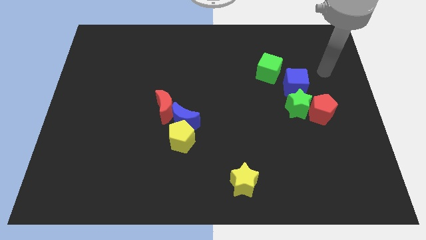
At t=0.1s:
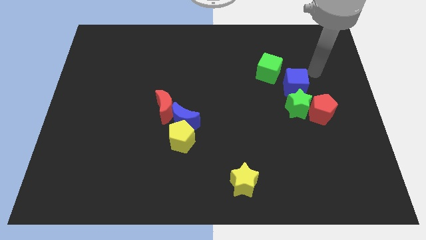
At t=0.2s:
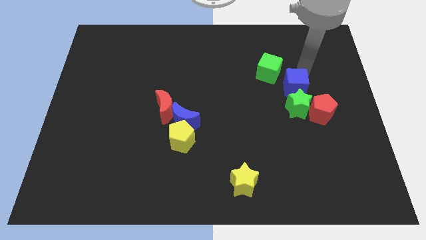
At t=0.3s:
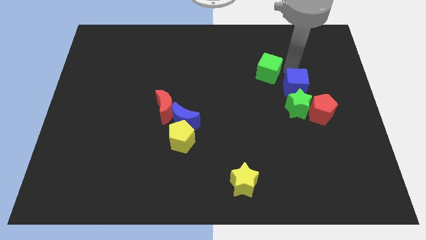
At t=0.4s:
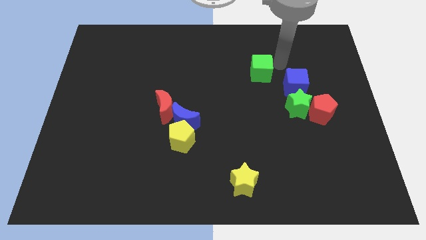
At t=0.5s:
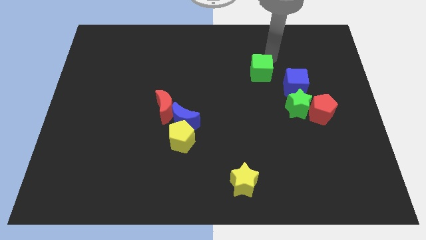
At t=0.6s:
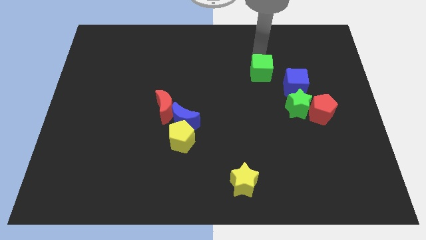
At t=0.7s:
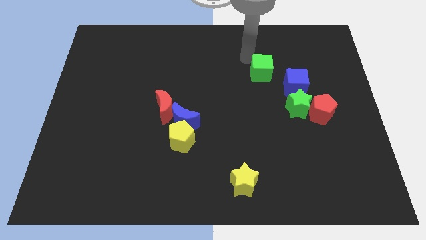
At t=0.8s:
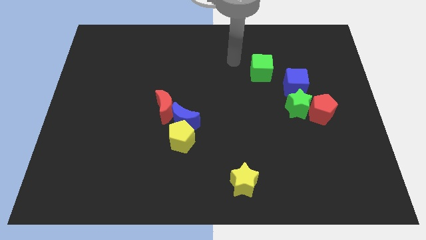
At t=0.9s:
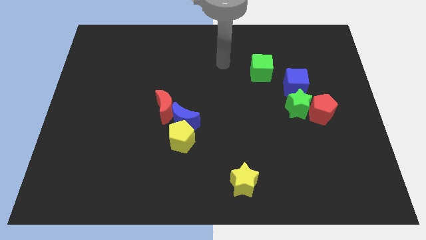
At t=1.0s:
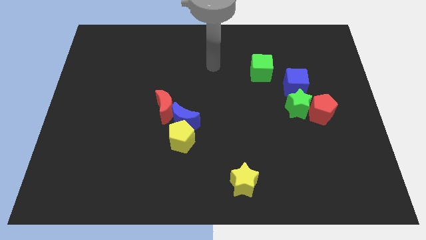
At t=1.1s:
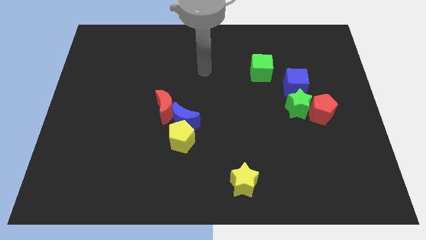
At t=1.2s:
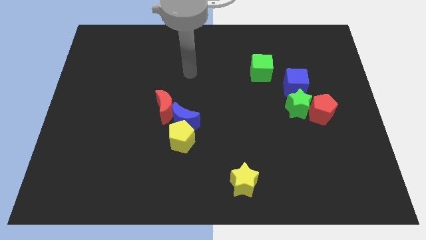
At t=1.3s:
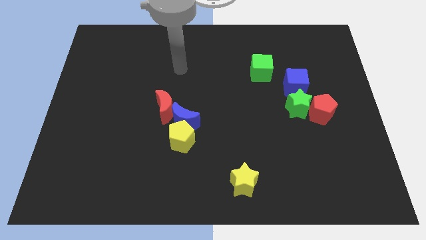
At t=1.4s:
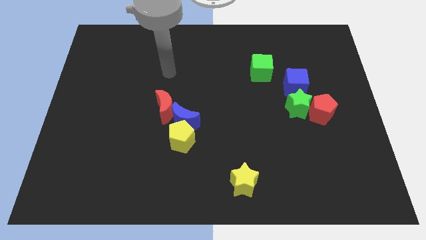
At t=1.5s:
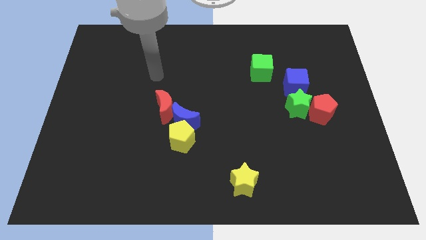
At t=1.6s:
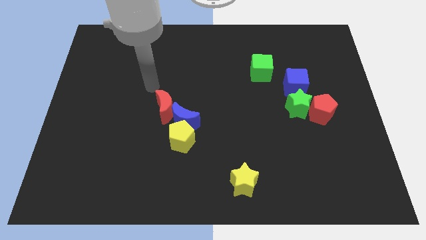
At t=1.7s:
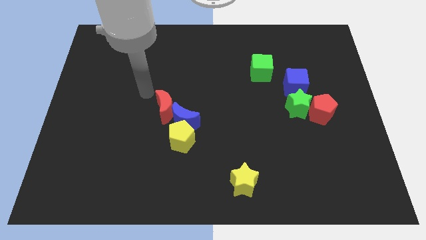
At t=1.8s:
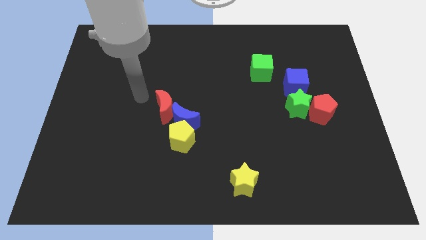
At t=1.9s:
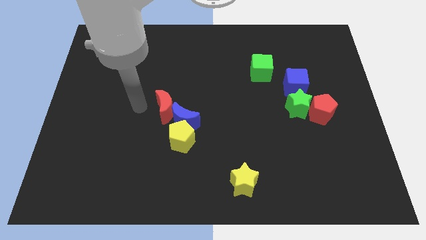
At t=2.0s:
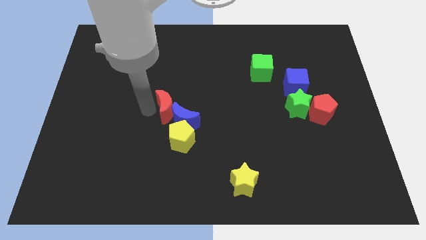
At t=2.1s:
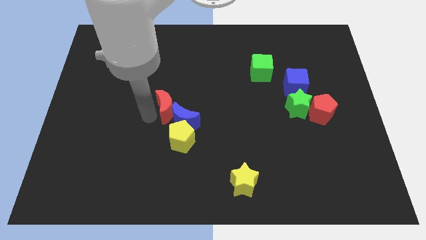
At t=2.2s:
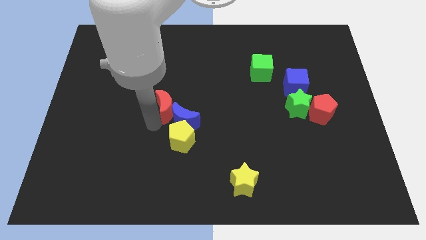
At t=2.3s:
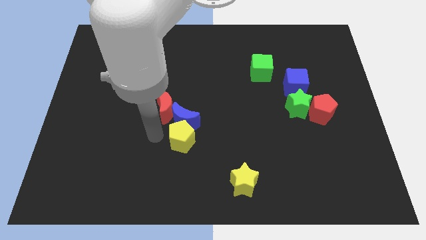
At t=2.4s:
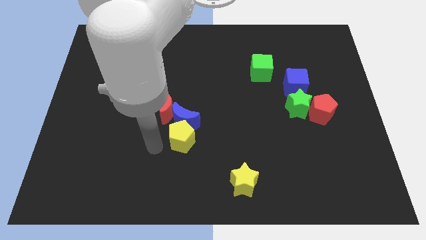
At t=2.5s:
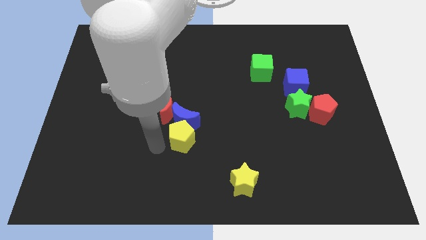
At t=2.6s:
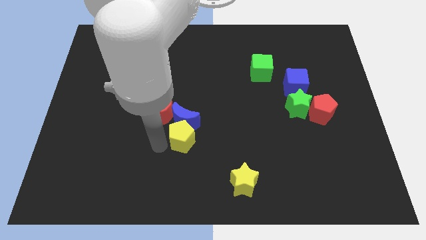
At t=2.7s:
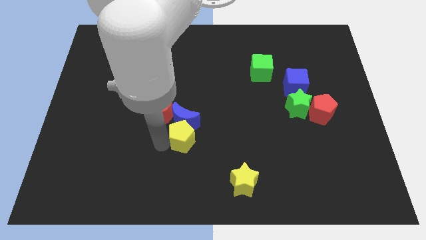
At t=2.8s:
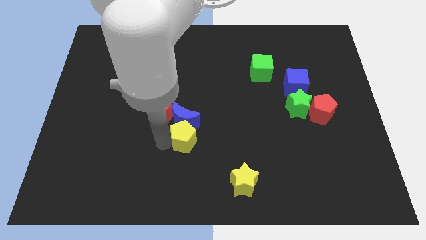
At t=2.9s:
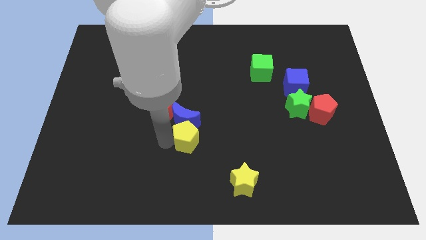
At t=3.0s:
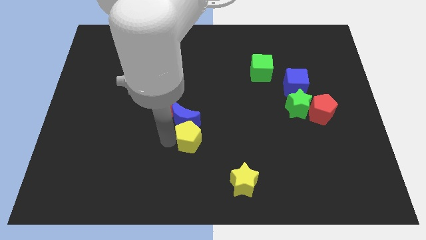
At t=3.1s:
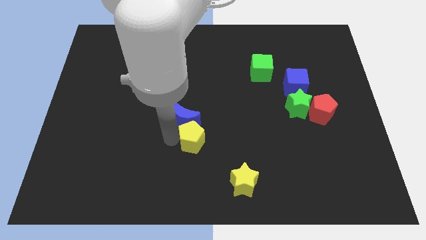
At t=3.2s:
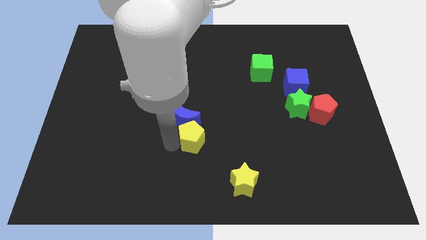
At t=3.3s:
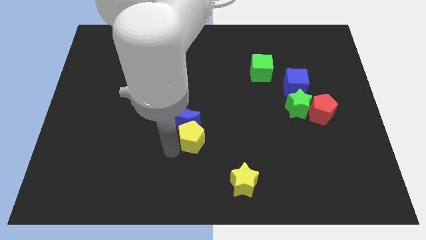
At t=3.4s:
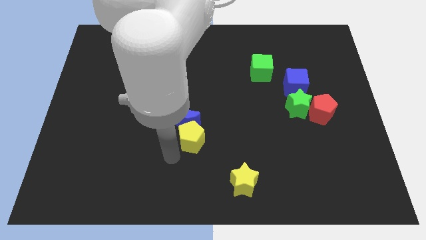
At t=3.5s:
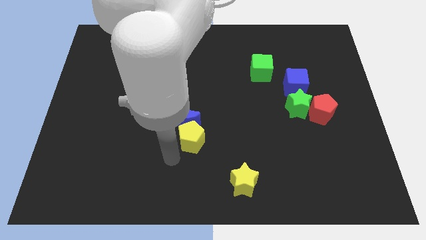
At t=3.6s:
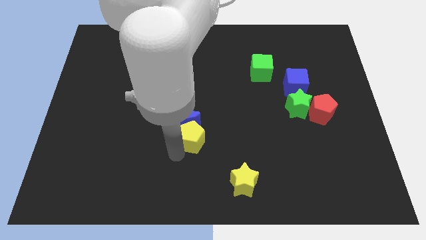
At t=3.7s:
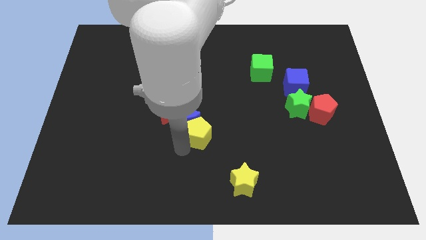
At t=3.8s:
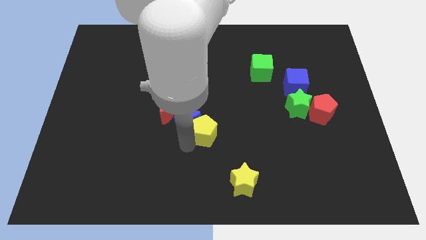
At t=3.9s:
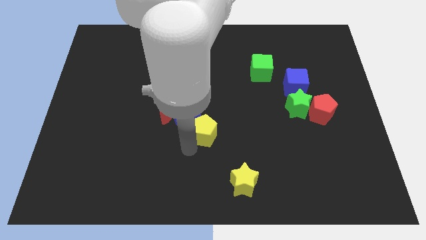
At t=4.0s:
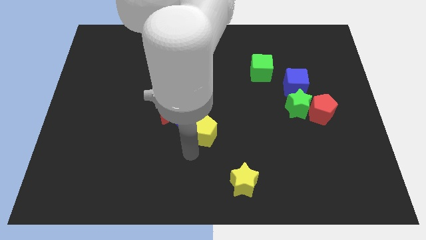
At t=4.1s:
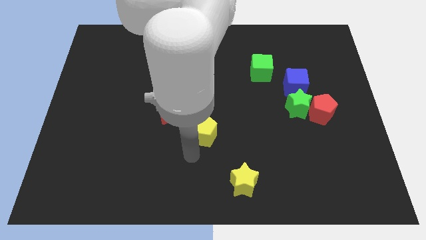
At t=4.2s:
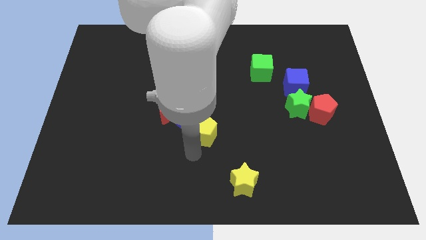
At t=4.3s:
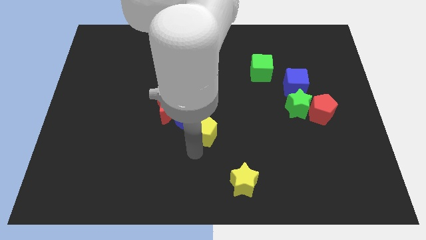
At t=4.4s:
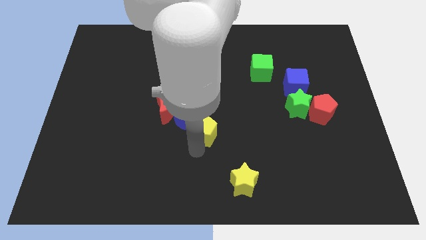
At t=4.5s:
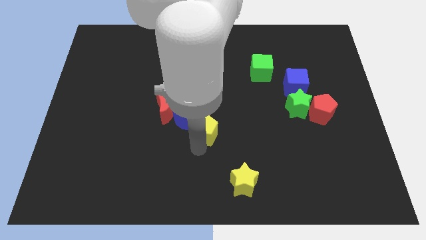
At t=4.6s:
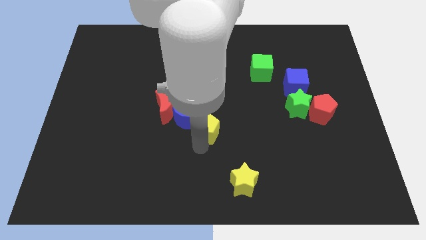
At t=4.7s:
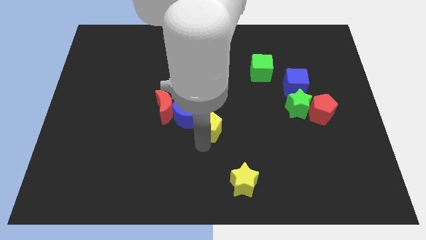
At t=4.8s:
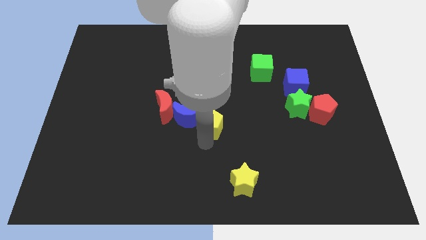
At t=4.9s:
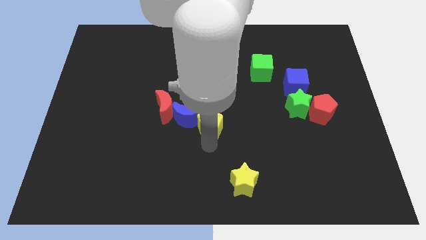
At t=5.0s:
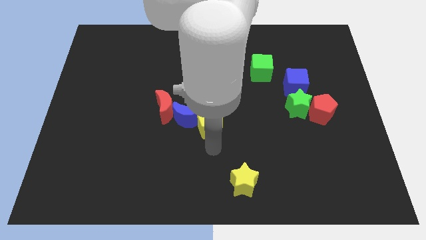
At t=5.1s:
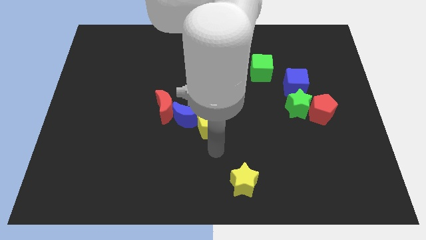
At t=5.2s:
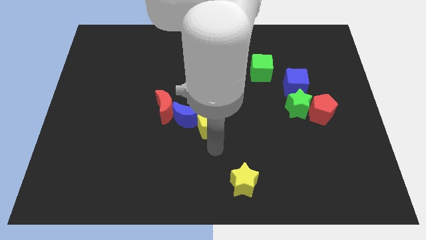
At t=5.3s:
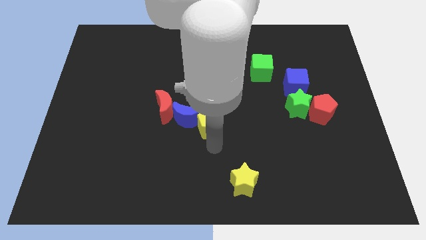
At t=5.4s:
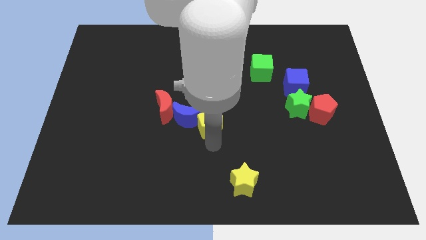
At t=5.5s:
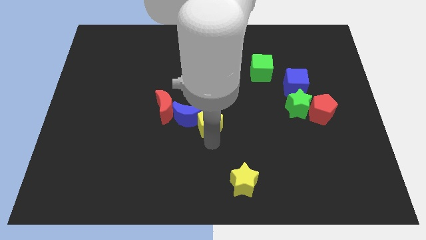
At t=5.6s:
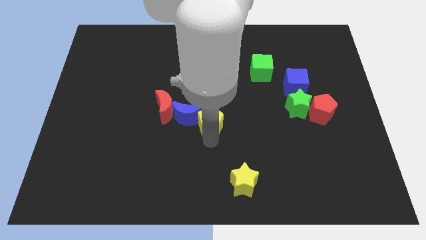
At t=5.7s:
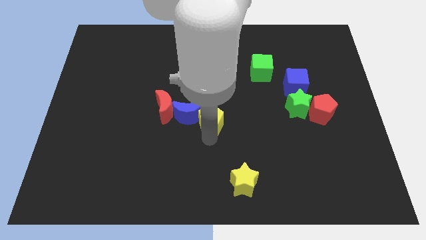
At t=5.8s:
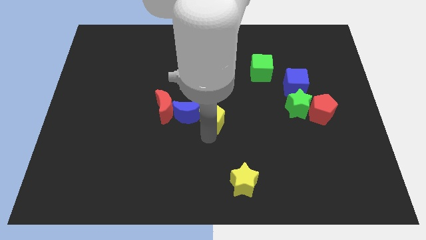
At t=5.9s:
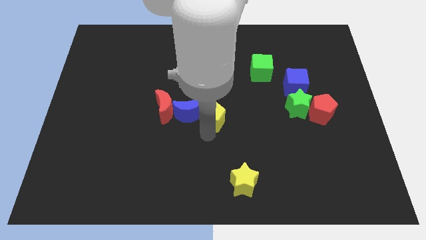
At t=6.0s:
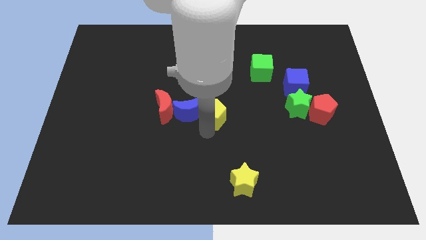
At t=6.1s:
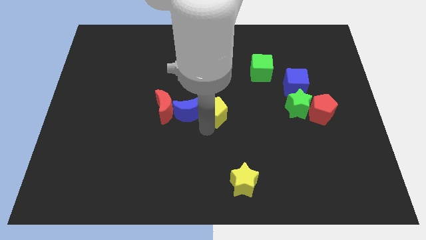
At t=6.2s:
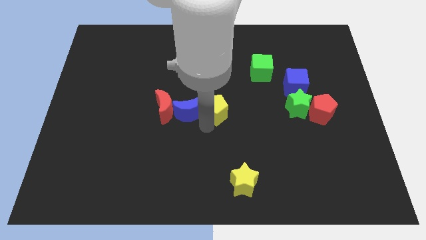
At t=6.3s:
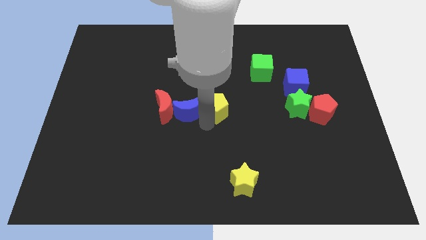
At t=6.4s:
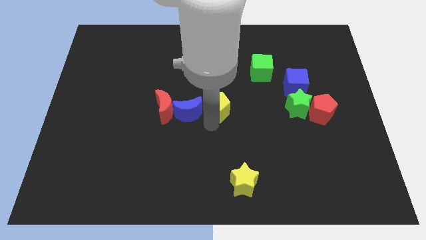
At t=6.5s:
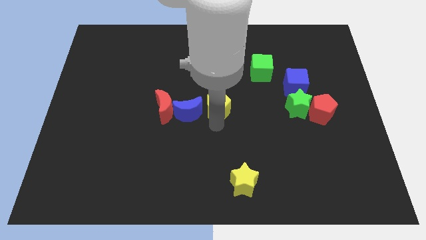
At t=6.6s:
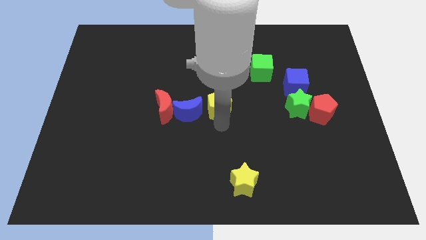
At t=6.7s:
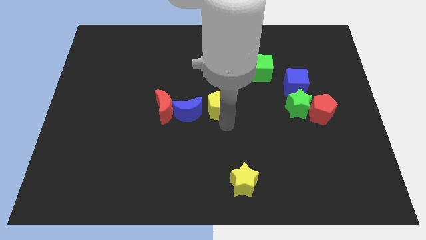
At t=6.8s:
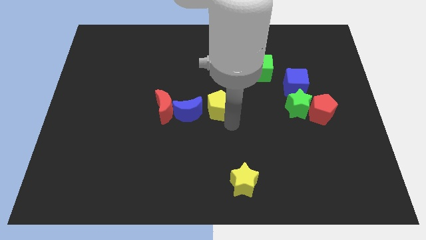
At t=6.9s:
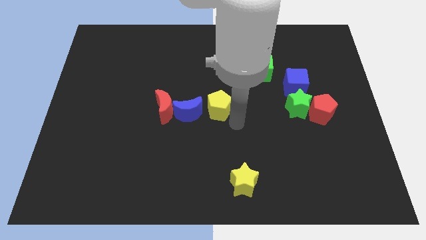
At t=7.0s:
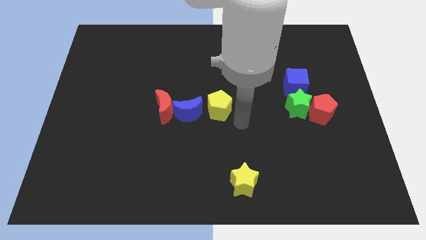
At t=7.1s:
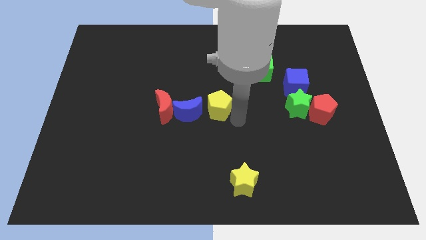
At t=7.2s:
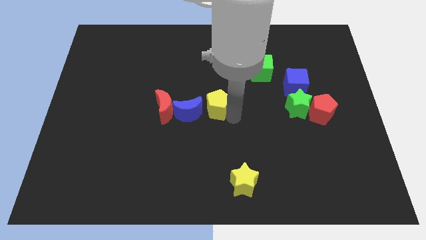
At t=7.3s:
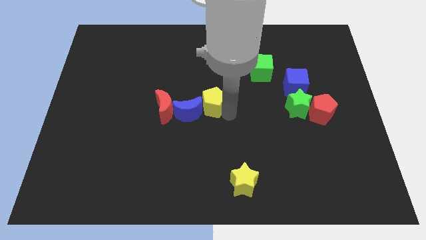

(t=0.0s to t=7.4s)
slide the yellow pentagon up somewhat

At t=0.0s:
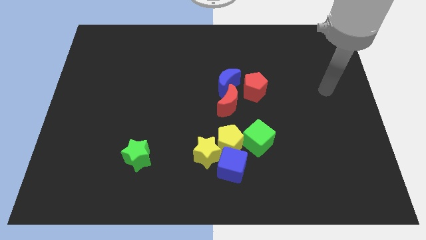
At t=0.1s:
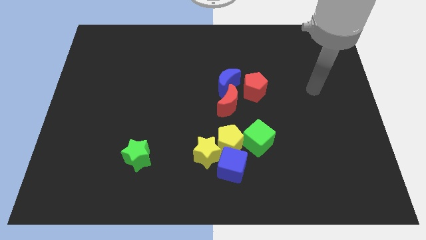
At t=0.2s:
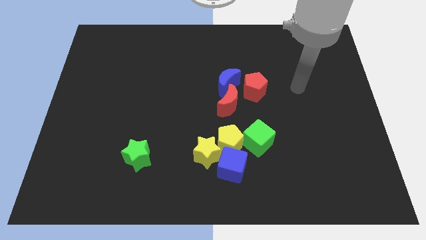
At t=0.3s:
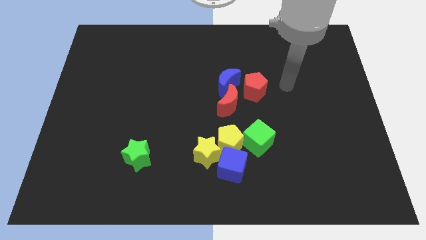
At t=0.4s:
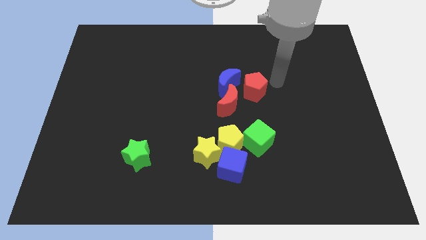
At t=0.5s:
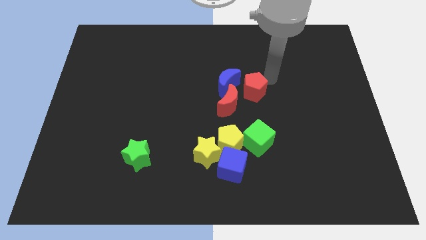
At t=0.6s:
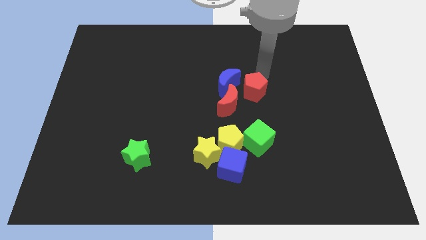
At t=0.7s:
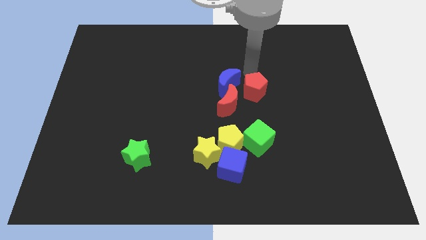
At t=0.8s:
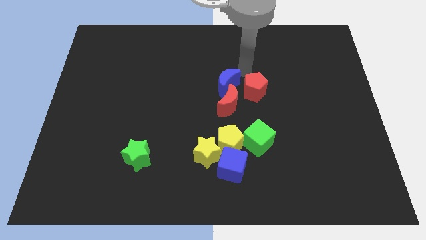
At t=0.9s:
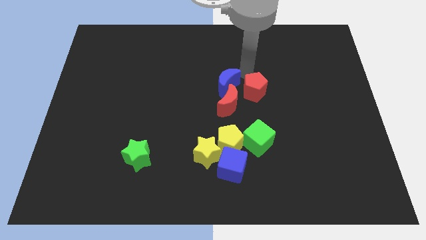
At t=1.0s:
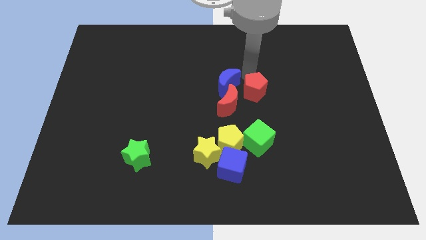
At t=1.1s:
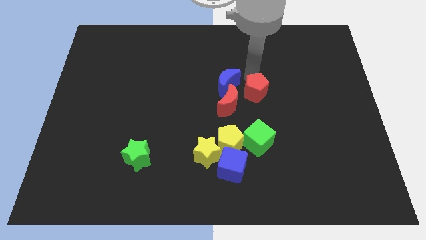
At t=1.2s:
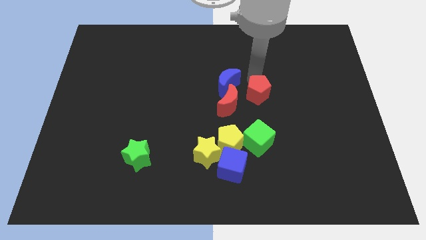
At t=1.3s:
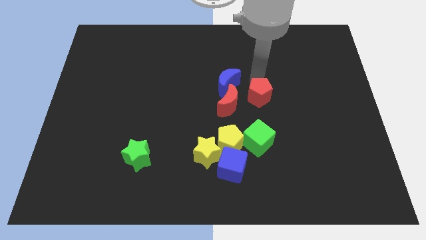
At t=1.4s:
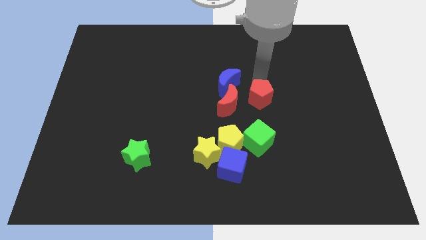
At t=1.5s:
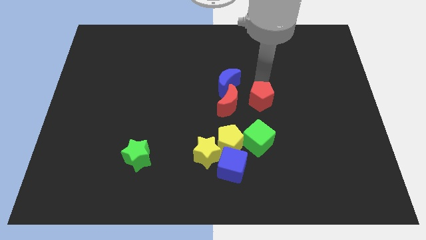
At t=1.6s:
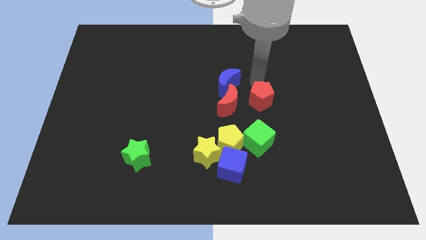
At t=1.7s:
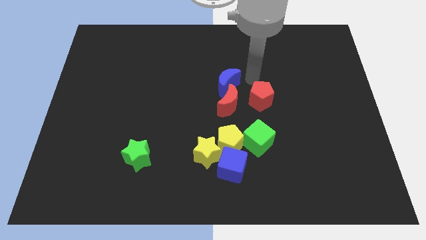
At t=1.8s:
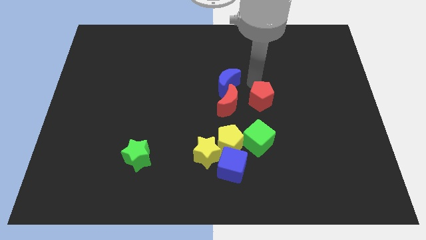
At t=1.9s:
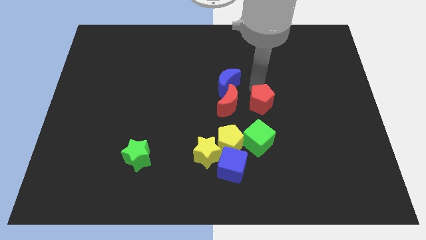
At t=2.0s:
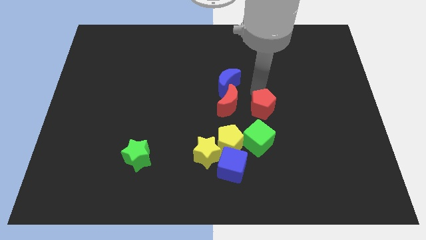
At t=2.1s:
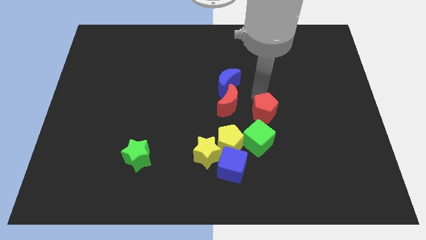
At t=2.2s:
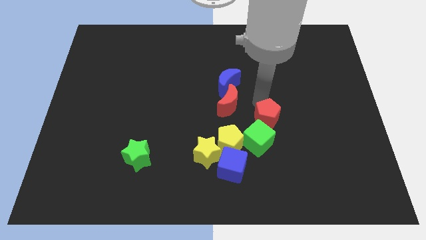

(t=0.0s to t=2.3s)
push the red pentagon downwards slightly
